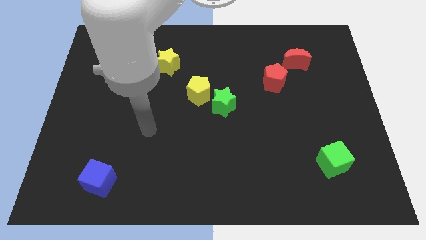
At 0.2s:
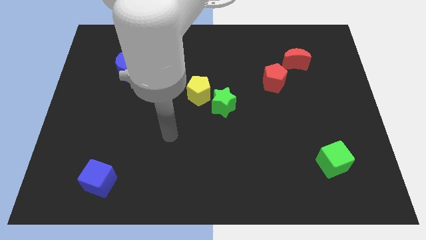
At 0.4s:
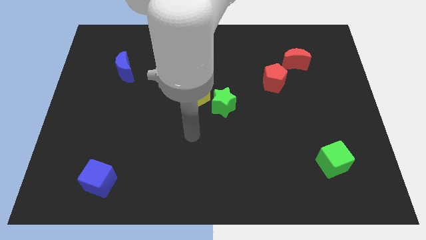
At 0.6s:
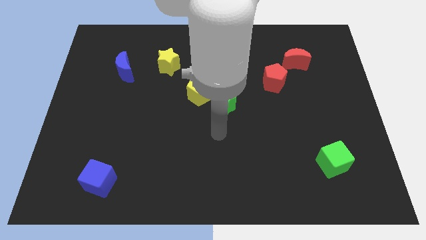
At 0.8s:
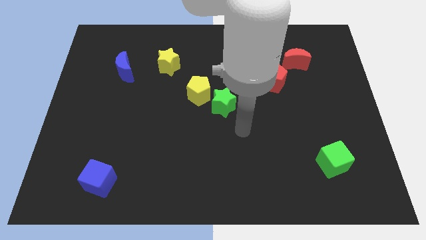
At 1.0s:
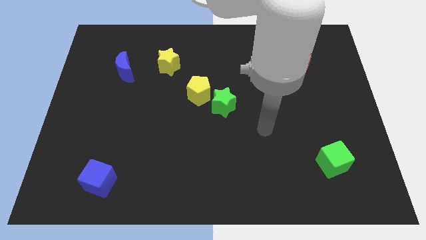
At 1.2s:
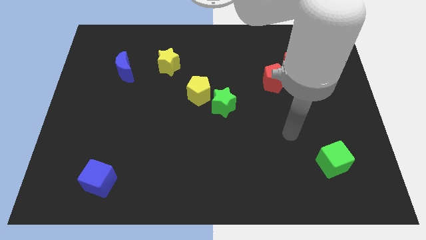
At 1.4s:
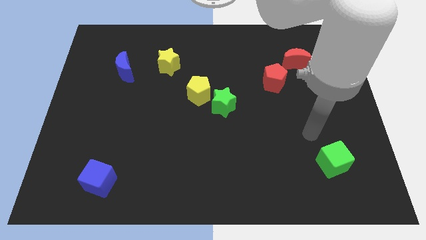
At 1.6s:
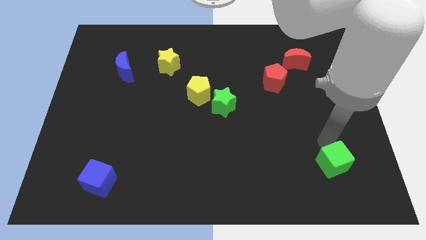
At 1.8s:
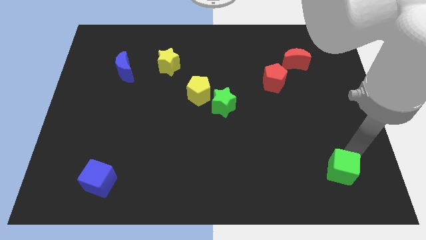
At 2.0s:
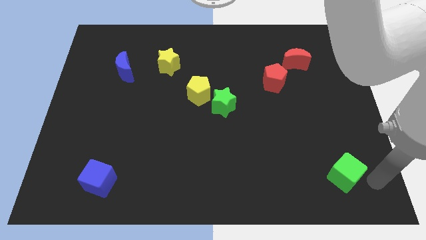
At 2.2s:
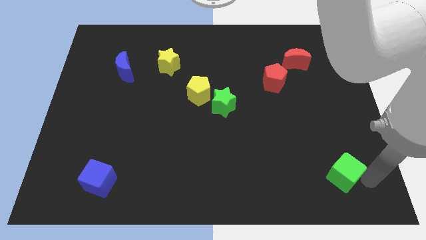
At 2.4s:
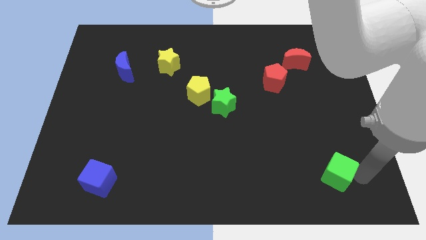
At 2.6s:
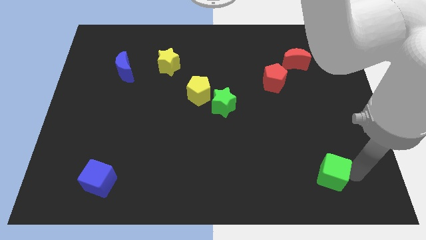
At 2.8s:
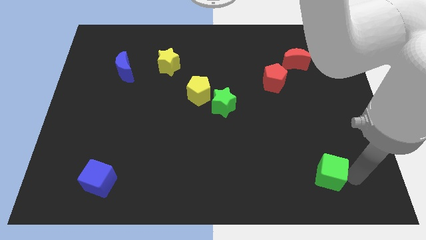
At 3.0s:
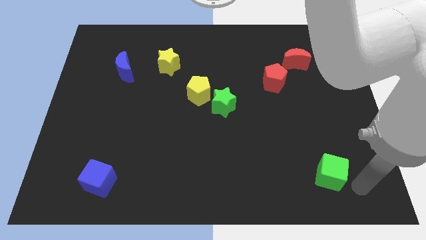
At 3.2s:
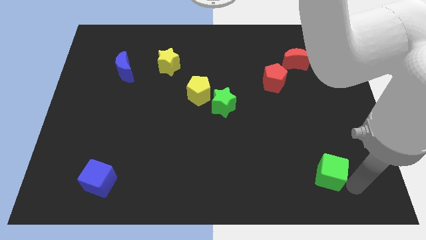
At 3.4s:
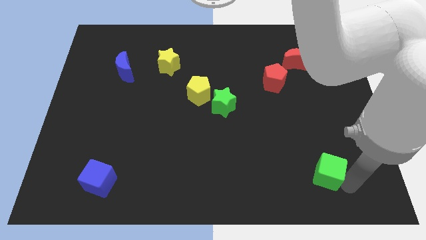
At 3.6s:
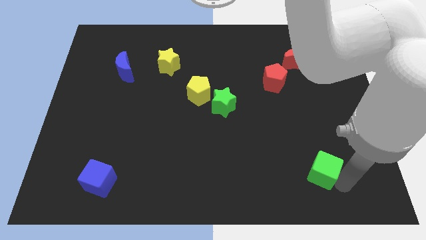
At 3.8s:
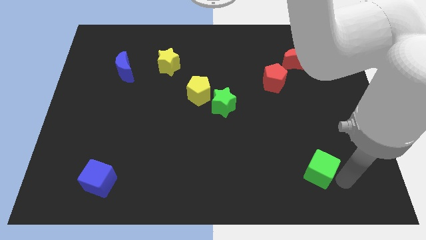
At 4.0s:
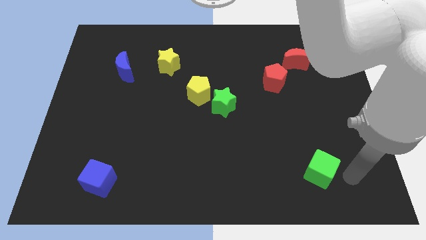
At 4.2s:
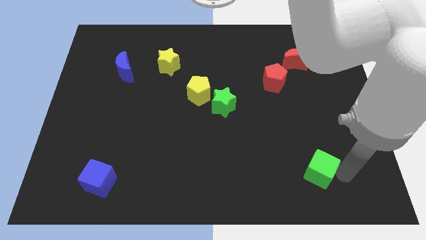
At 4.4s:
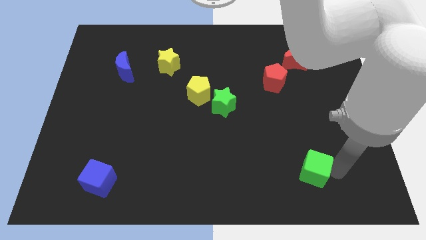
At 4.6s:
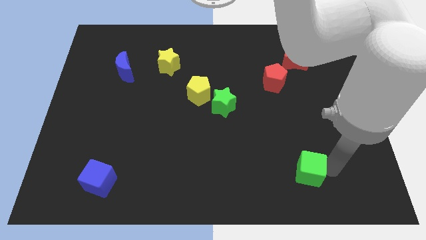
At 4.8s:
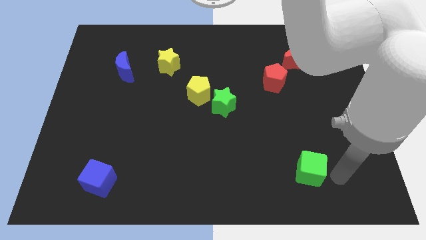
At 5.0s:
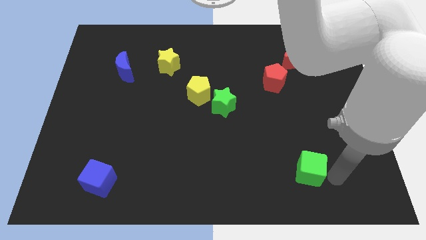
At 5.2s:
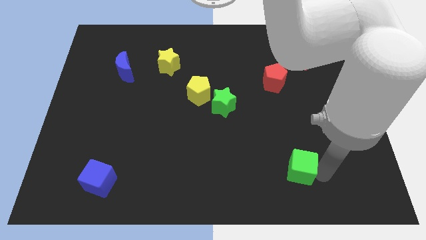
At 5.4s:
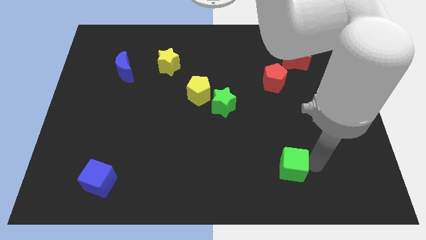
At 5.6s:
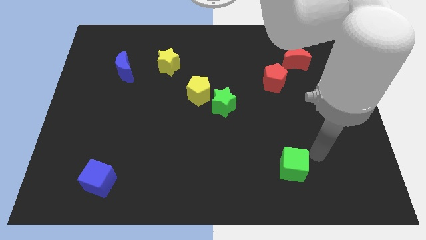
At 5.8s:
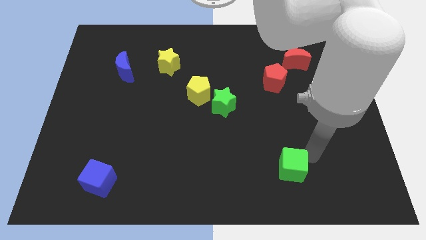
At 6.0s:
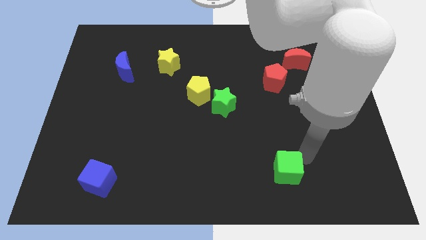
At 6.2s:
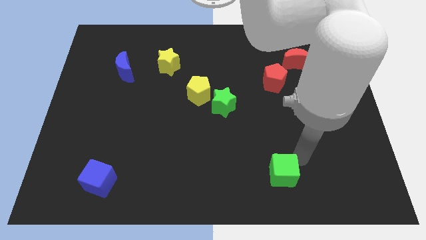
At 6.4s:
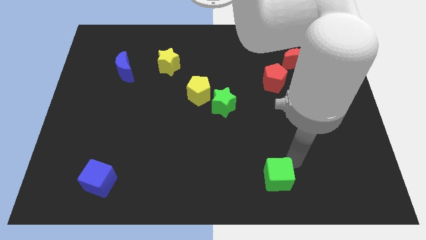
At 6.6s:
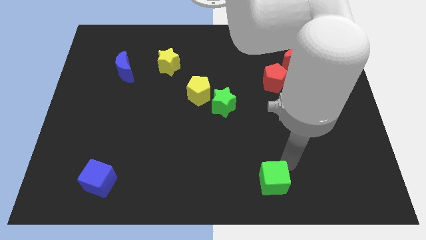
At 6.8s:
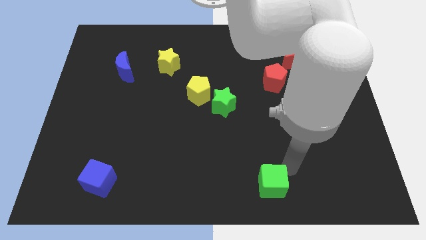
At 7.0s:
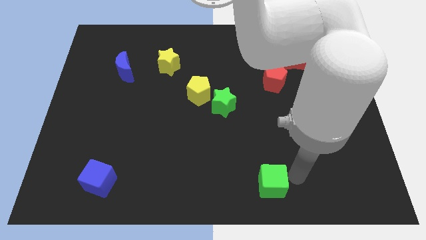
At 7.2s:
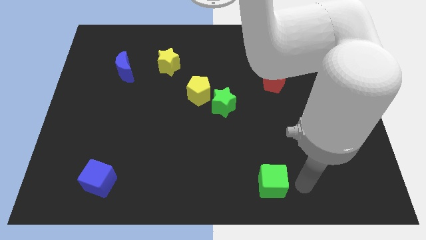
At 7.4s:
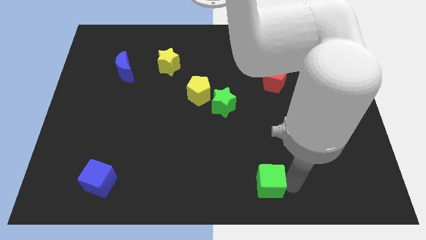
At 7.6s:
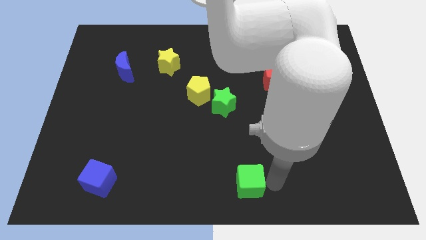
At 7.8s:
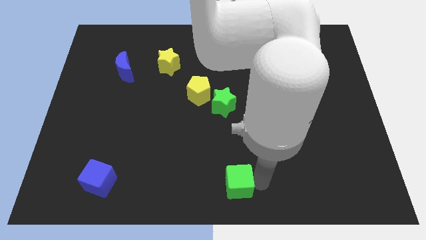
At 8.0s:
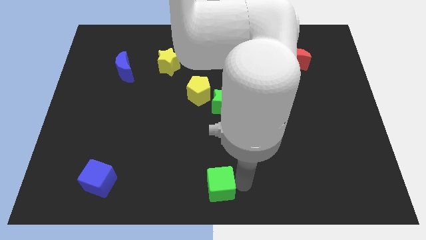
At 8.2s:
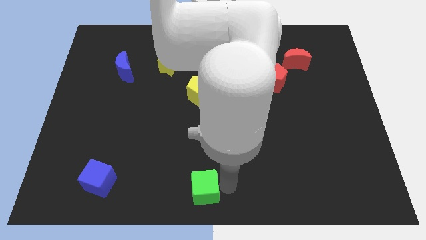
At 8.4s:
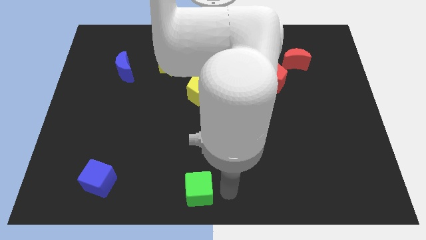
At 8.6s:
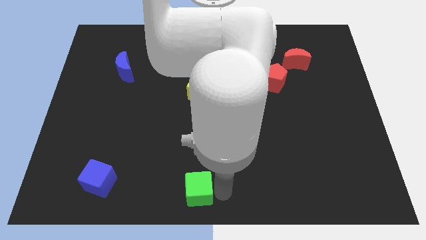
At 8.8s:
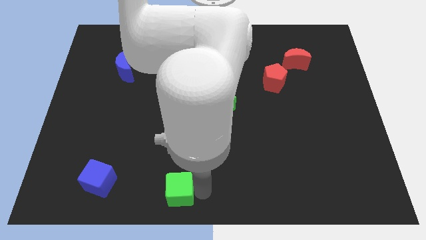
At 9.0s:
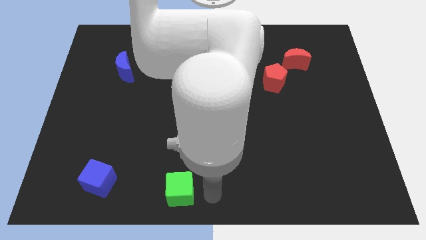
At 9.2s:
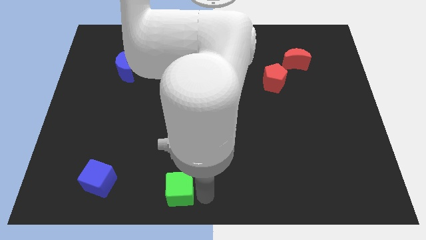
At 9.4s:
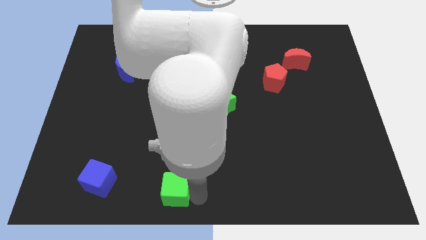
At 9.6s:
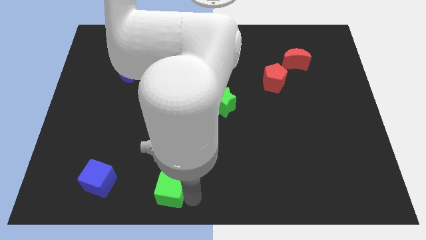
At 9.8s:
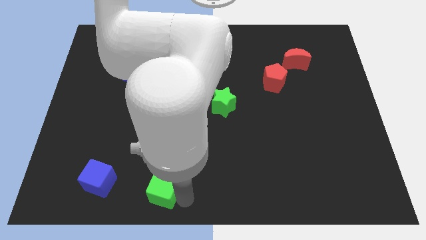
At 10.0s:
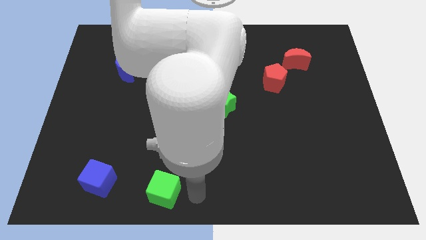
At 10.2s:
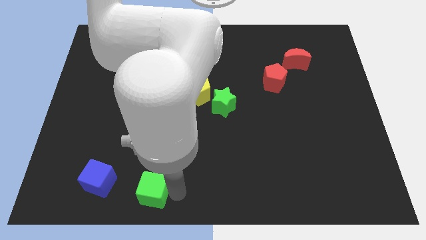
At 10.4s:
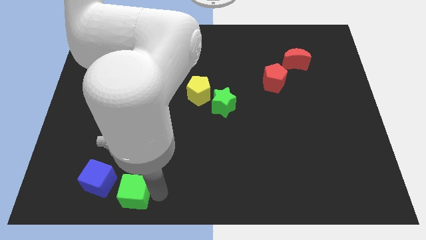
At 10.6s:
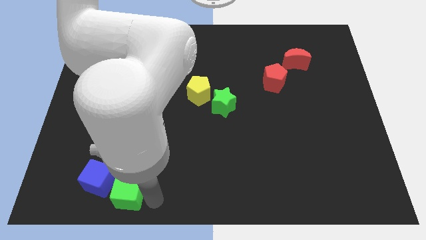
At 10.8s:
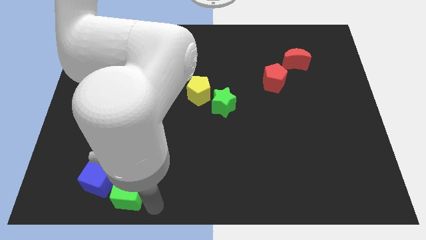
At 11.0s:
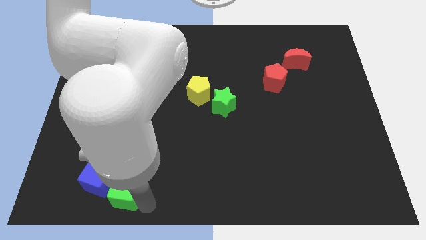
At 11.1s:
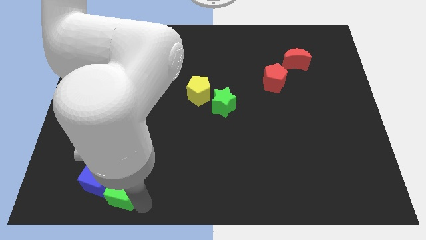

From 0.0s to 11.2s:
slide the green cube next to the blue cube

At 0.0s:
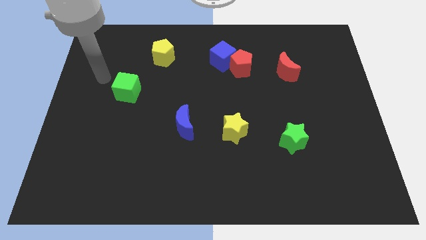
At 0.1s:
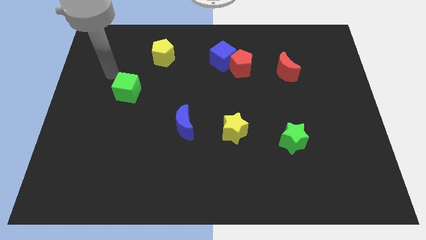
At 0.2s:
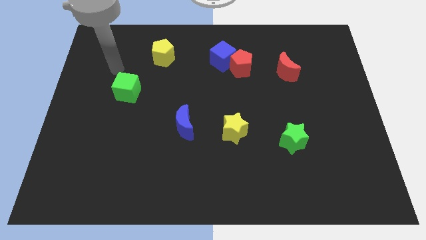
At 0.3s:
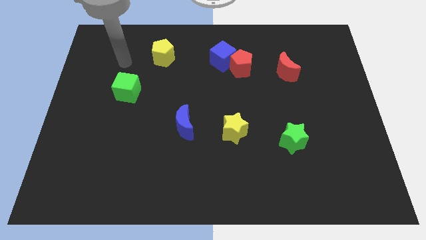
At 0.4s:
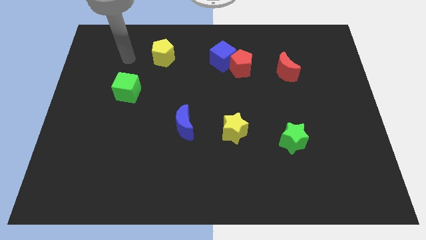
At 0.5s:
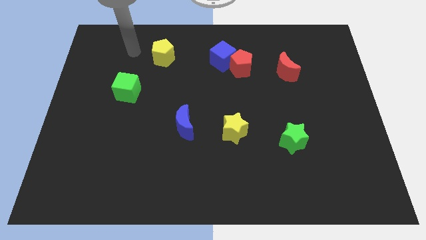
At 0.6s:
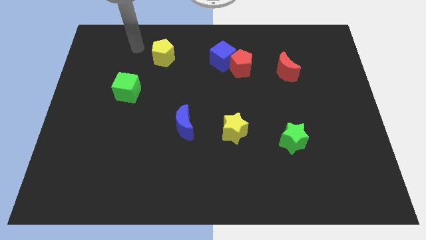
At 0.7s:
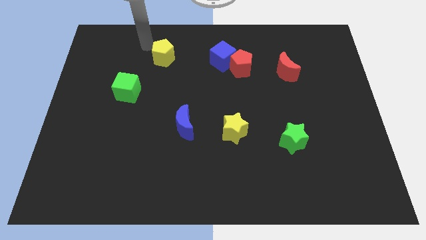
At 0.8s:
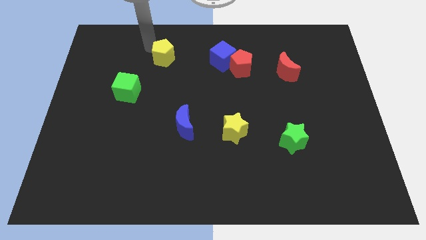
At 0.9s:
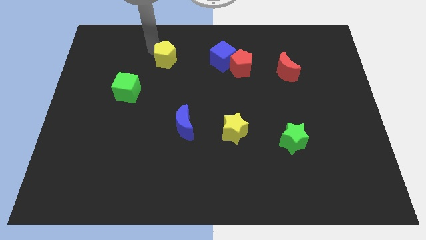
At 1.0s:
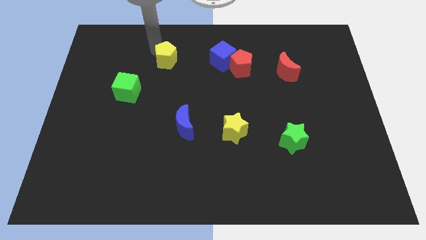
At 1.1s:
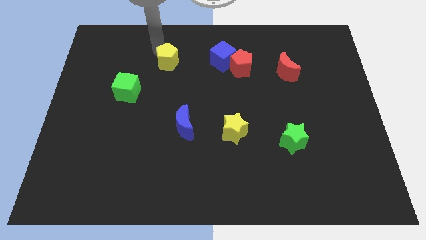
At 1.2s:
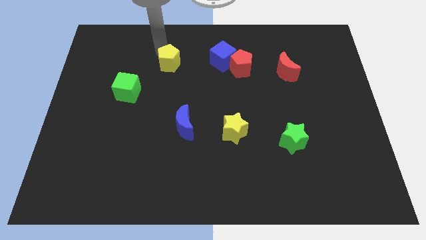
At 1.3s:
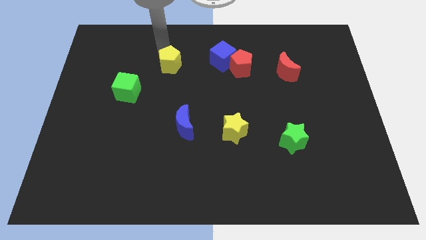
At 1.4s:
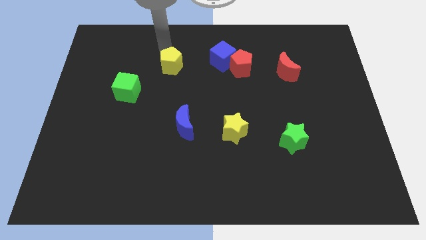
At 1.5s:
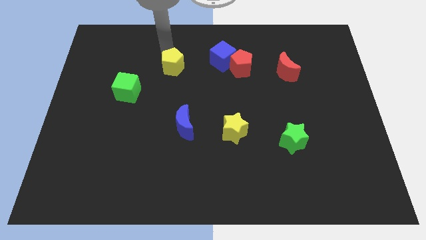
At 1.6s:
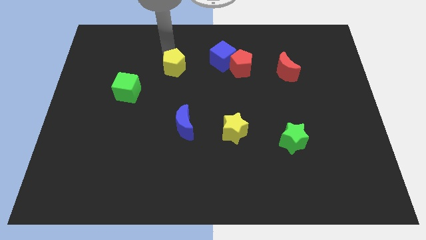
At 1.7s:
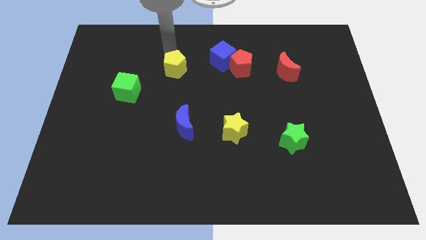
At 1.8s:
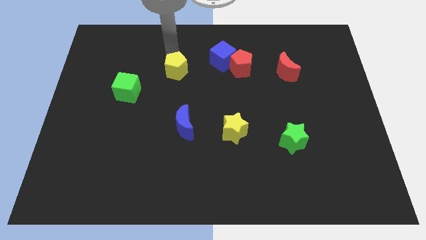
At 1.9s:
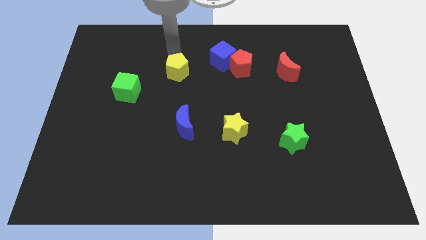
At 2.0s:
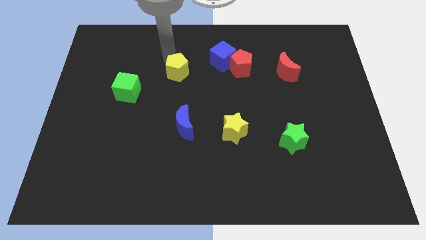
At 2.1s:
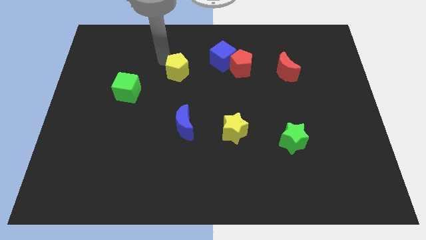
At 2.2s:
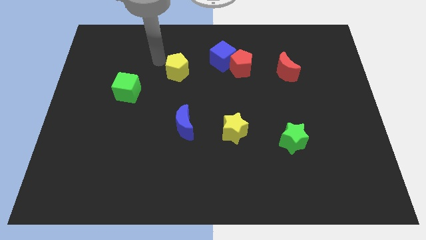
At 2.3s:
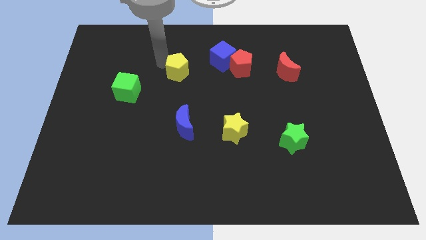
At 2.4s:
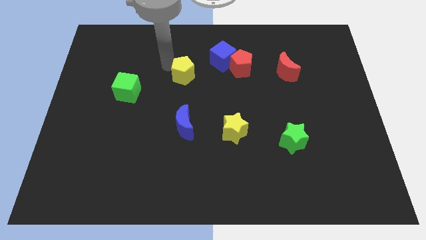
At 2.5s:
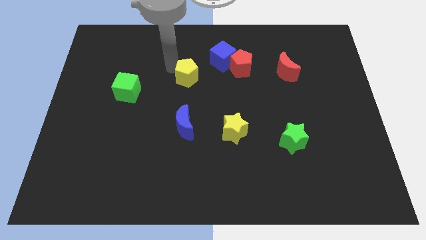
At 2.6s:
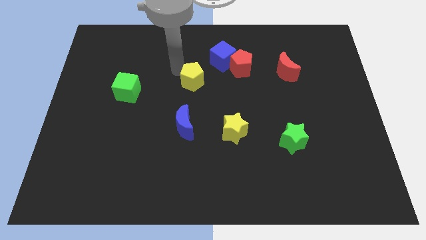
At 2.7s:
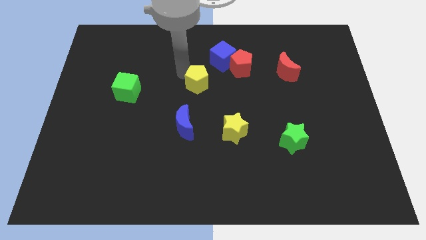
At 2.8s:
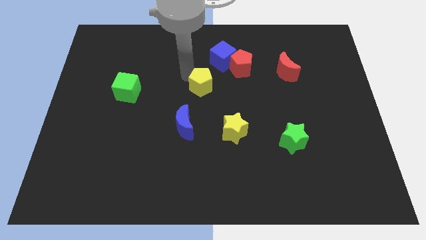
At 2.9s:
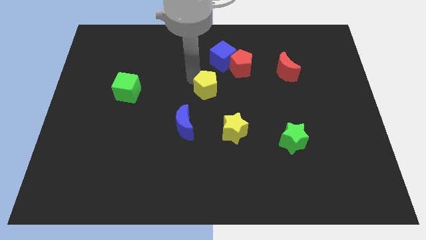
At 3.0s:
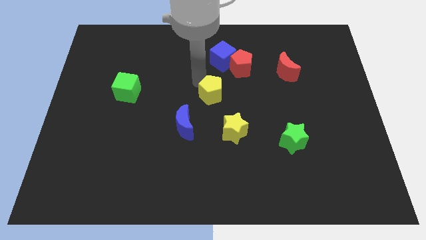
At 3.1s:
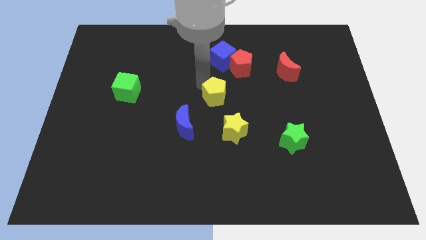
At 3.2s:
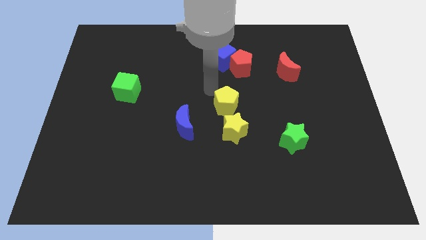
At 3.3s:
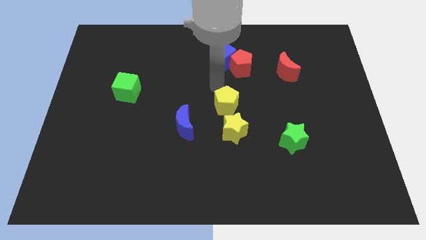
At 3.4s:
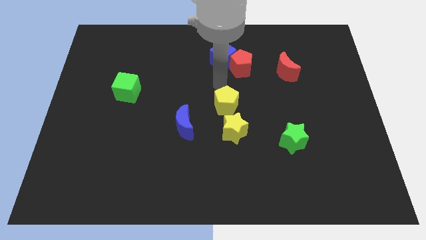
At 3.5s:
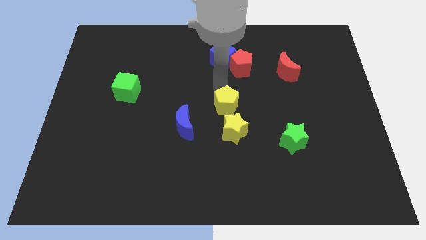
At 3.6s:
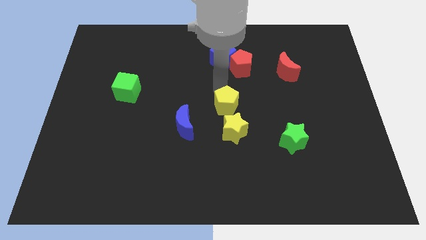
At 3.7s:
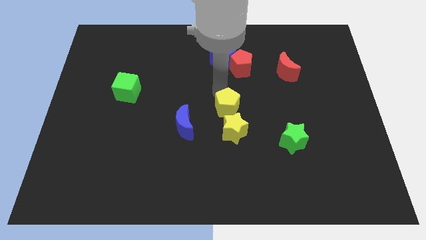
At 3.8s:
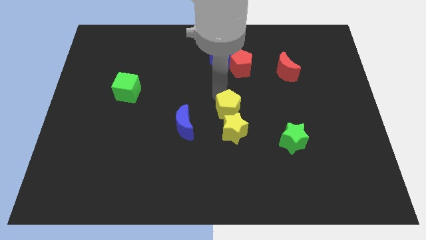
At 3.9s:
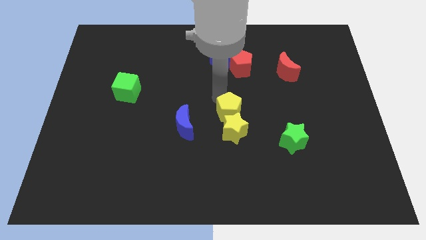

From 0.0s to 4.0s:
move the yellow pentagon to the yellow star
